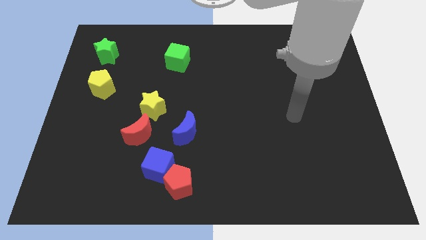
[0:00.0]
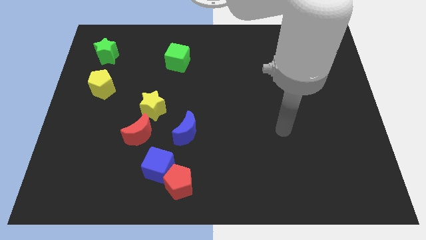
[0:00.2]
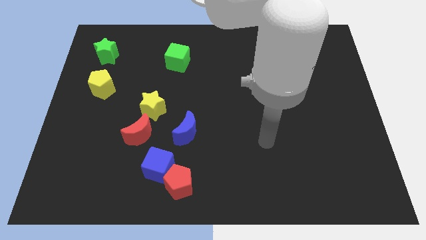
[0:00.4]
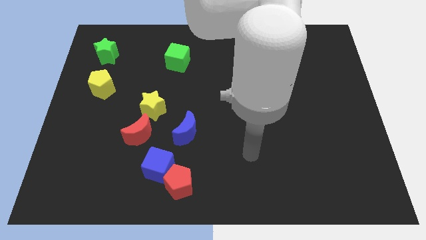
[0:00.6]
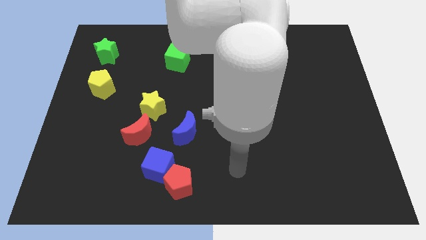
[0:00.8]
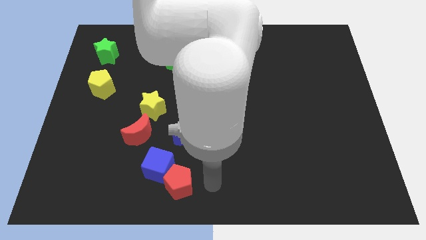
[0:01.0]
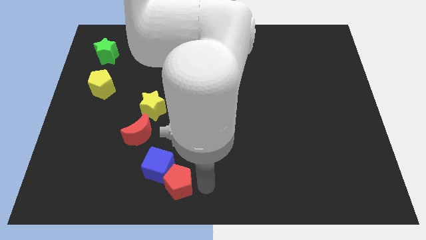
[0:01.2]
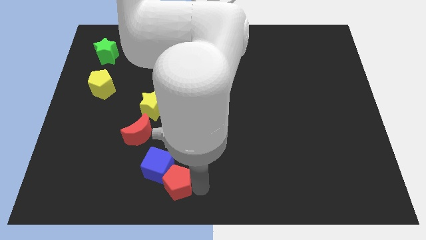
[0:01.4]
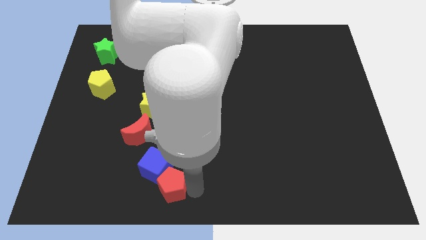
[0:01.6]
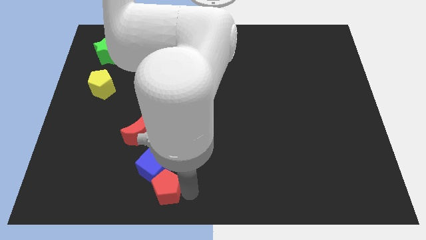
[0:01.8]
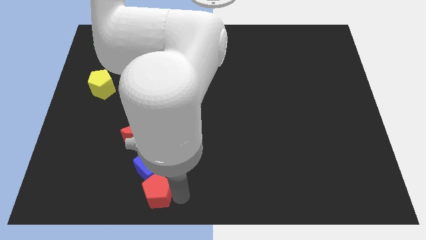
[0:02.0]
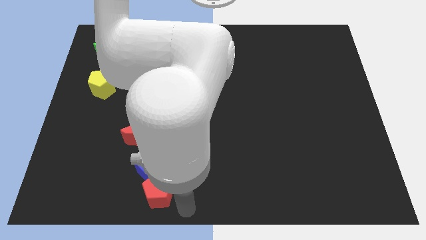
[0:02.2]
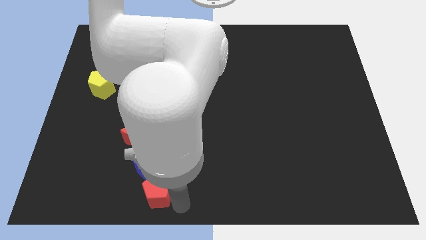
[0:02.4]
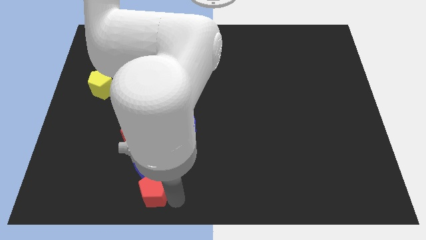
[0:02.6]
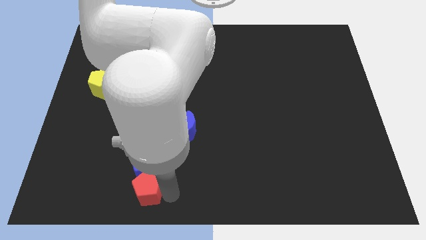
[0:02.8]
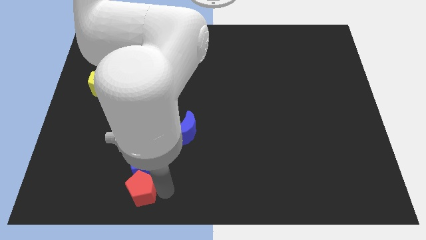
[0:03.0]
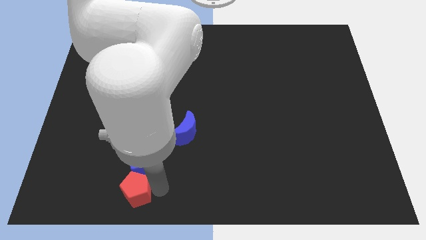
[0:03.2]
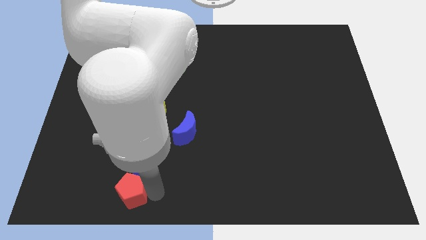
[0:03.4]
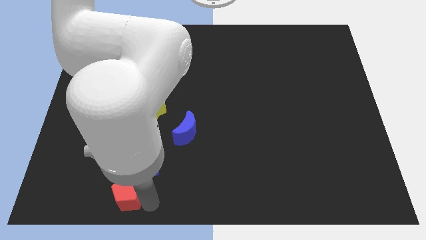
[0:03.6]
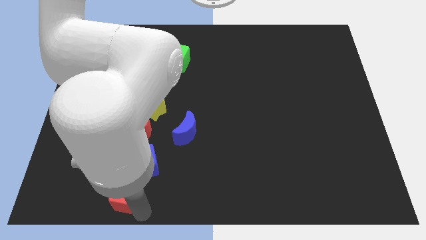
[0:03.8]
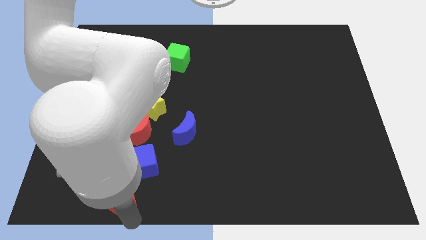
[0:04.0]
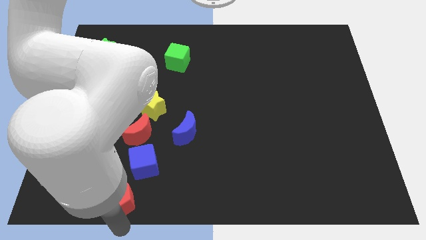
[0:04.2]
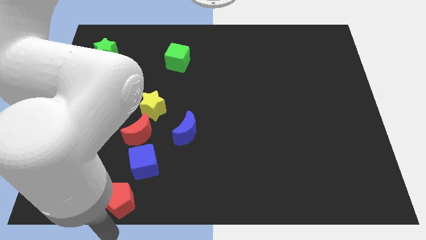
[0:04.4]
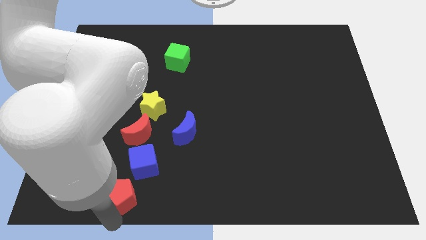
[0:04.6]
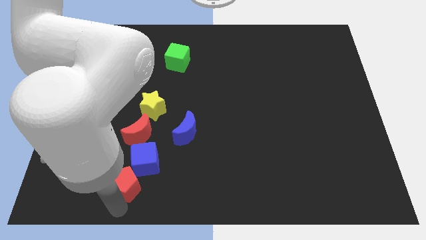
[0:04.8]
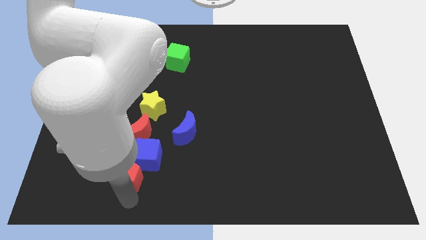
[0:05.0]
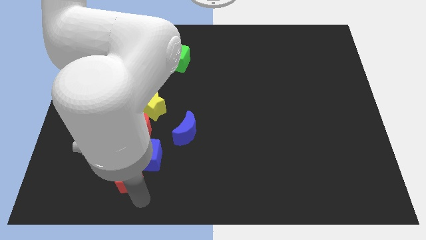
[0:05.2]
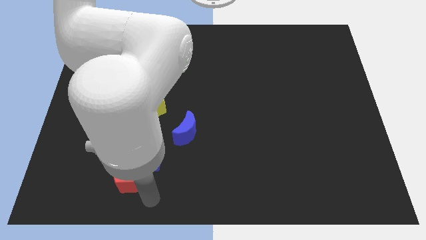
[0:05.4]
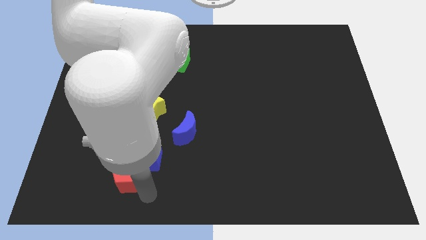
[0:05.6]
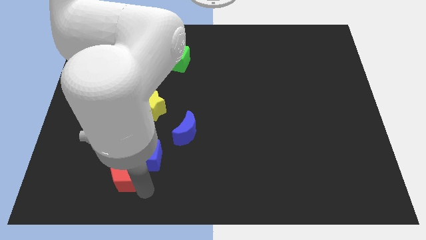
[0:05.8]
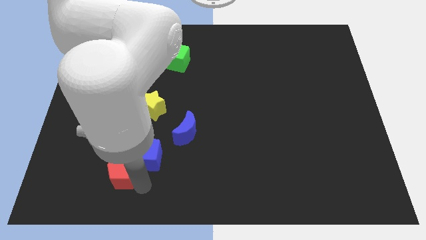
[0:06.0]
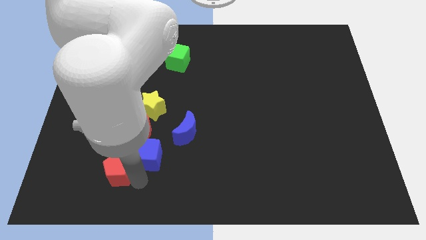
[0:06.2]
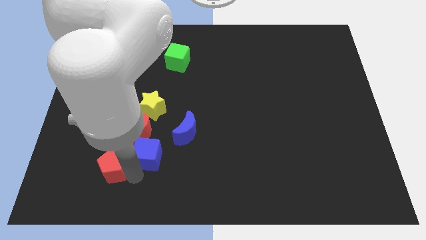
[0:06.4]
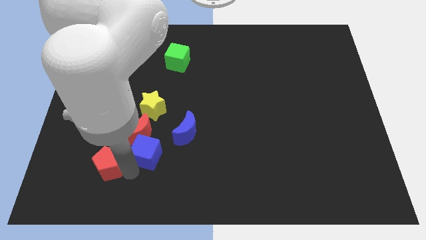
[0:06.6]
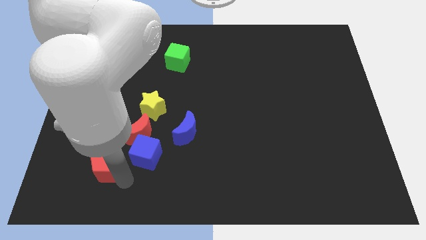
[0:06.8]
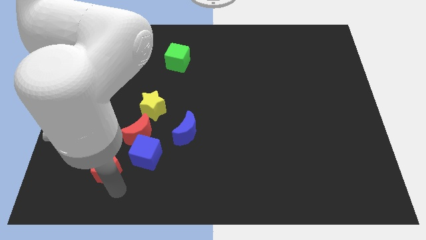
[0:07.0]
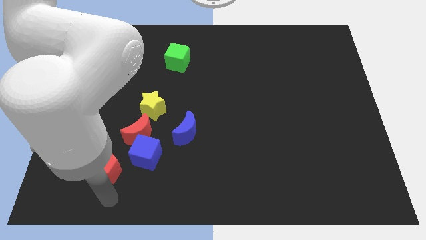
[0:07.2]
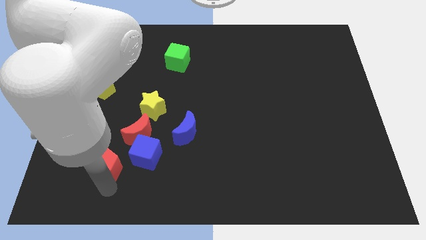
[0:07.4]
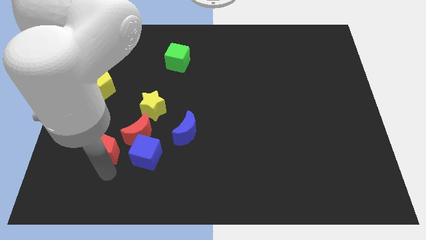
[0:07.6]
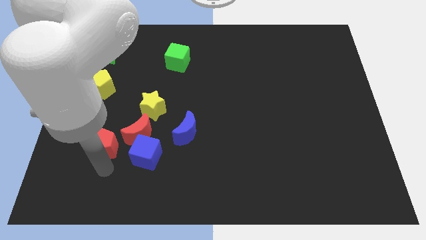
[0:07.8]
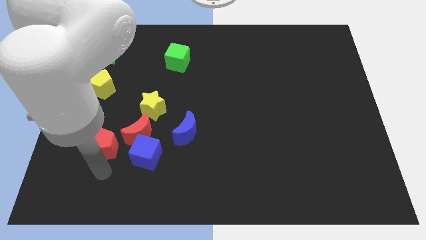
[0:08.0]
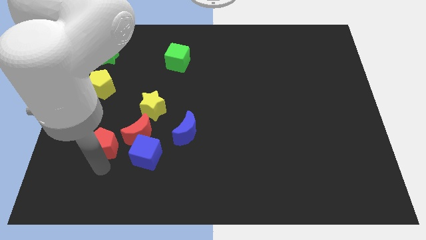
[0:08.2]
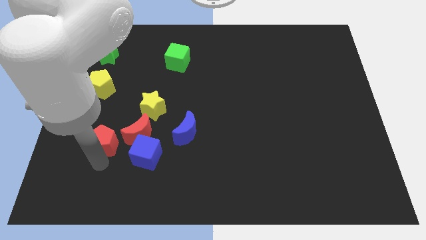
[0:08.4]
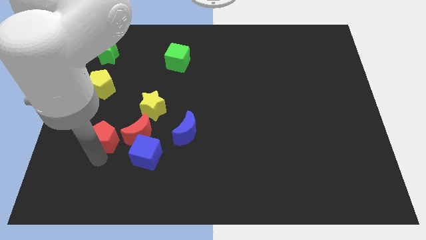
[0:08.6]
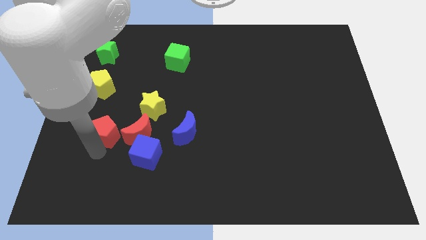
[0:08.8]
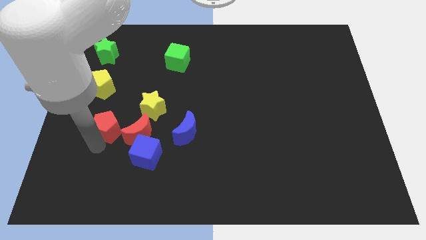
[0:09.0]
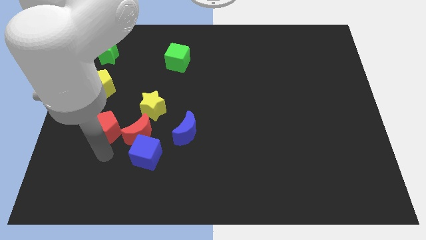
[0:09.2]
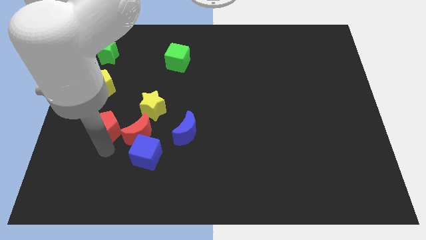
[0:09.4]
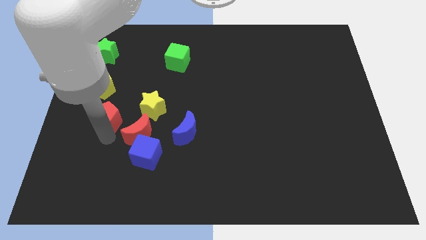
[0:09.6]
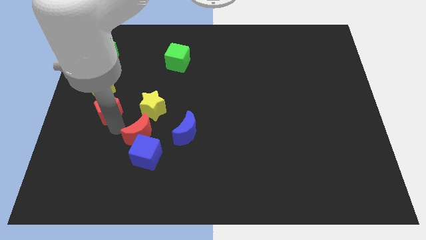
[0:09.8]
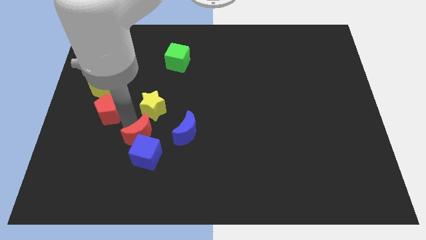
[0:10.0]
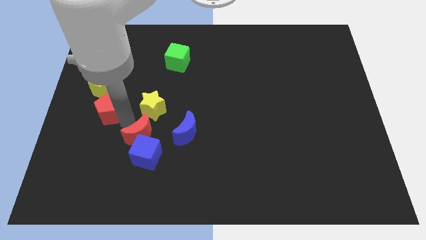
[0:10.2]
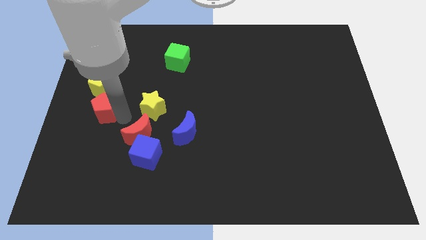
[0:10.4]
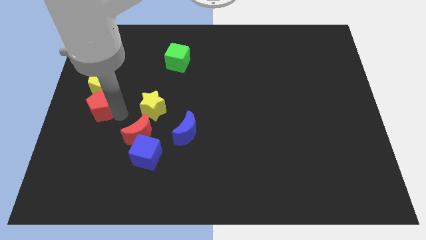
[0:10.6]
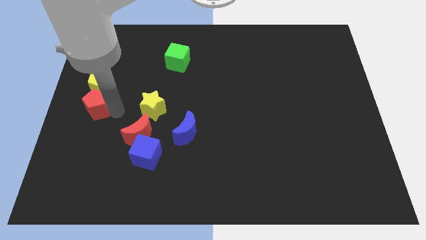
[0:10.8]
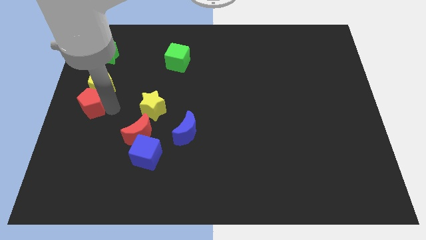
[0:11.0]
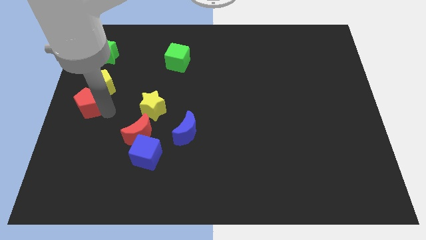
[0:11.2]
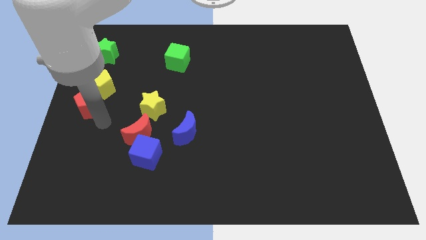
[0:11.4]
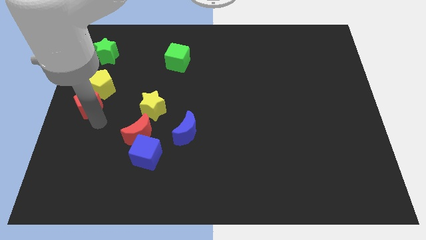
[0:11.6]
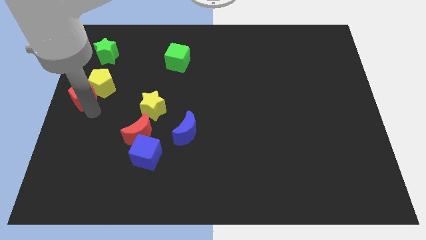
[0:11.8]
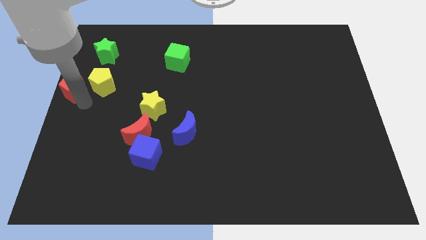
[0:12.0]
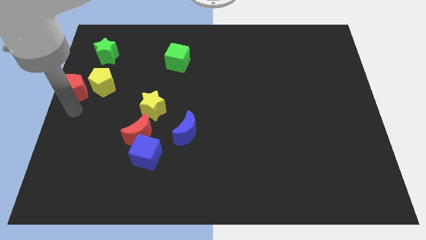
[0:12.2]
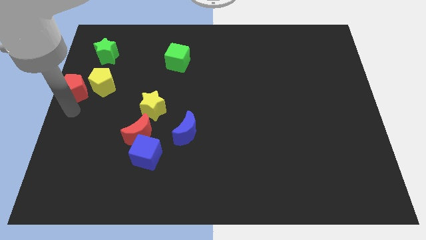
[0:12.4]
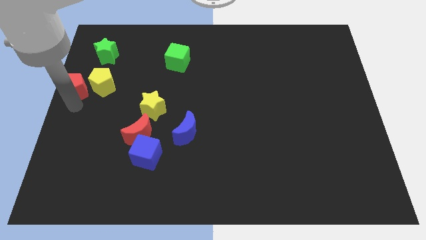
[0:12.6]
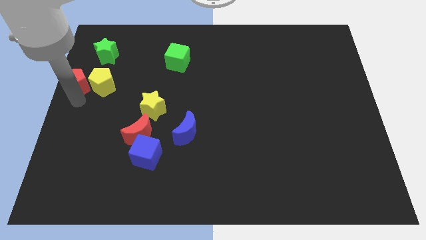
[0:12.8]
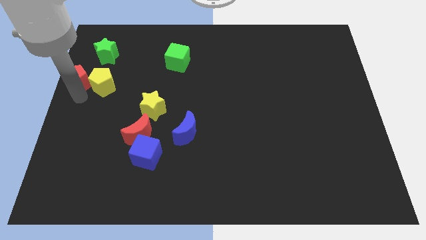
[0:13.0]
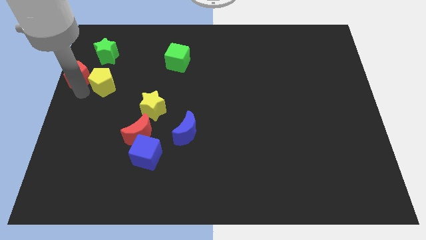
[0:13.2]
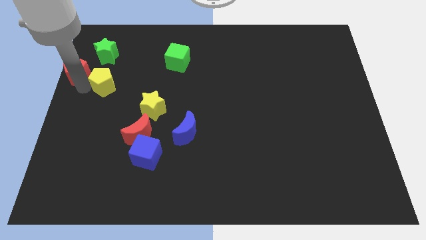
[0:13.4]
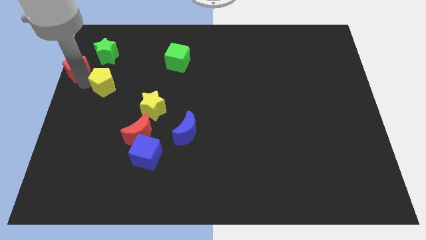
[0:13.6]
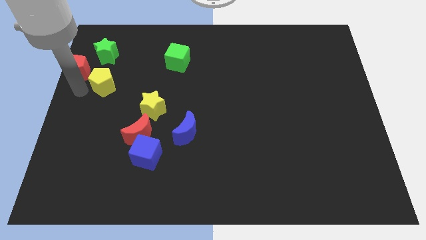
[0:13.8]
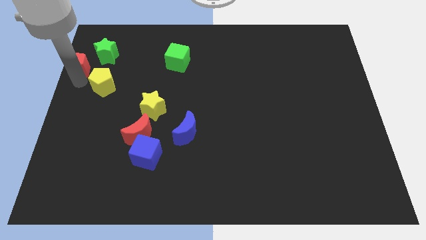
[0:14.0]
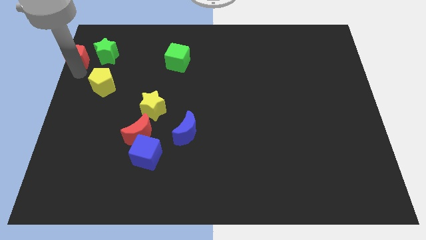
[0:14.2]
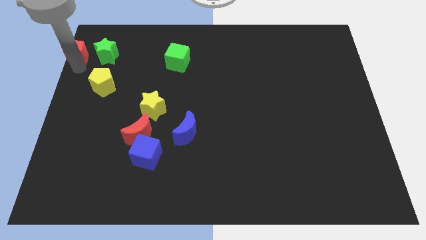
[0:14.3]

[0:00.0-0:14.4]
move the red pentagon to the top left
